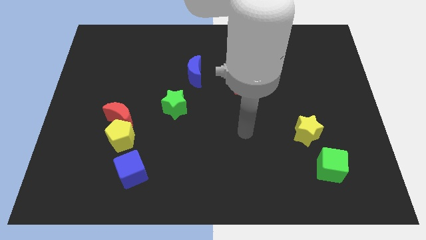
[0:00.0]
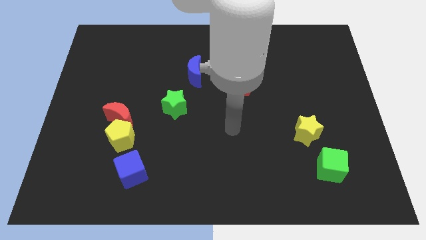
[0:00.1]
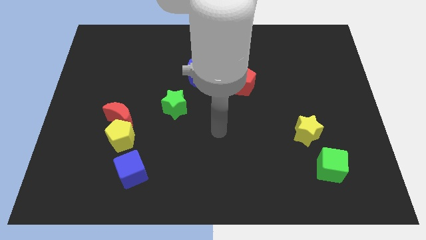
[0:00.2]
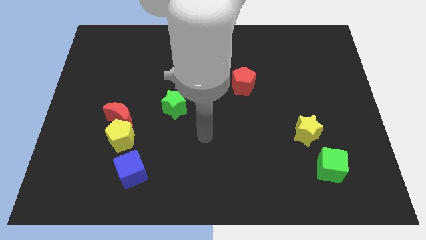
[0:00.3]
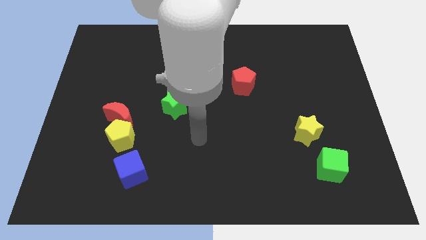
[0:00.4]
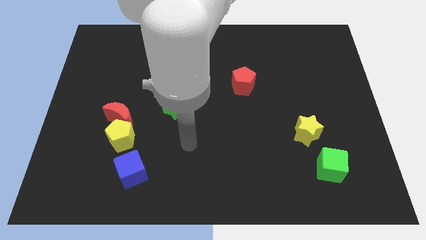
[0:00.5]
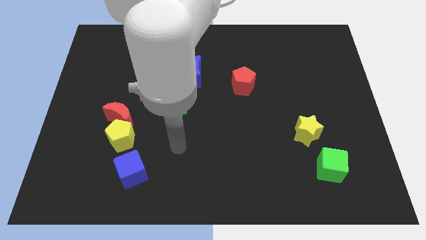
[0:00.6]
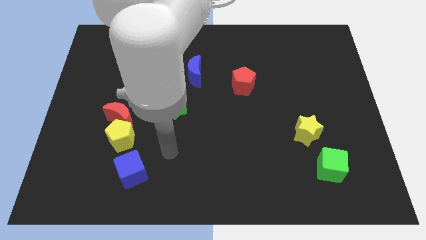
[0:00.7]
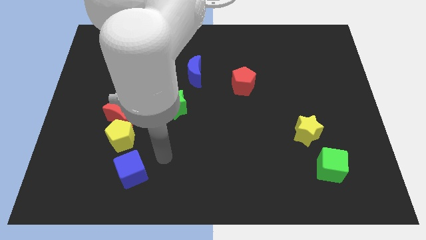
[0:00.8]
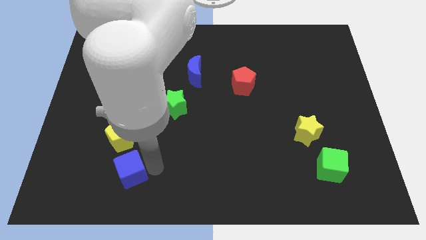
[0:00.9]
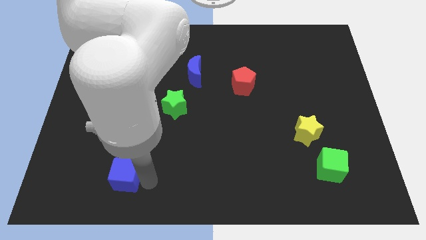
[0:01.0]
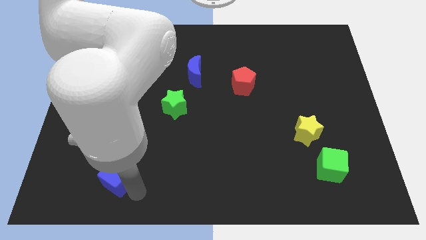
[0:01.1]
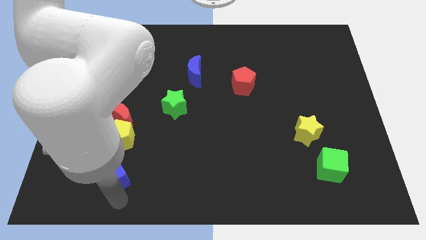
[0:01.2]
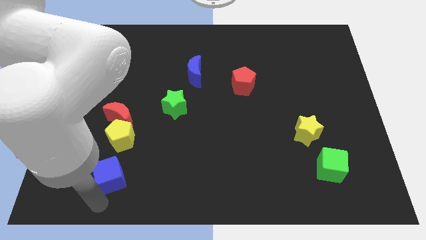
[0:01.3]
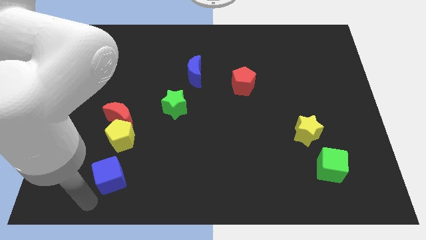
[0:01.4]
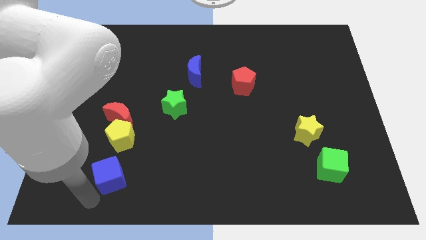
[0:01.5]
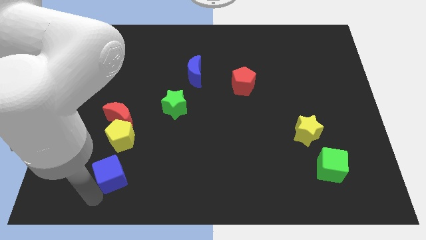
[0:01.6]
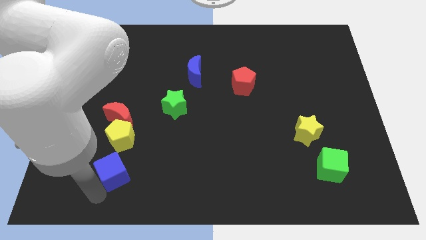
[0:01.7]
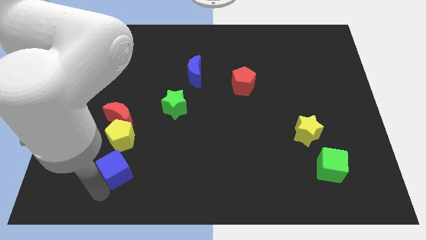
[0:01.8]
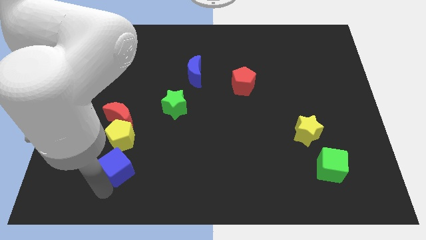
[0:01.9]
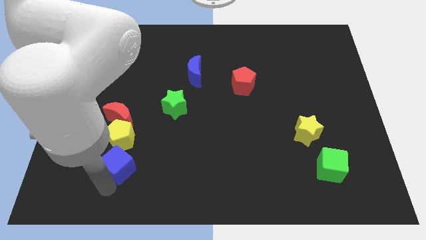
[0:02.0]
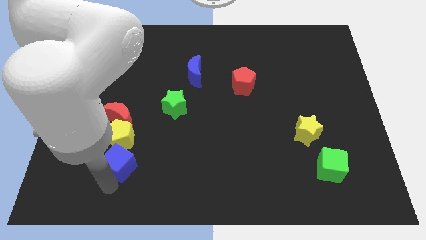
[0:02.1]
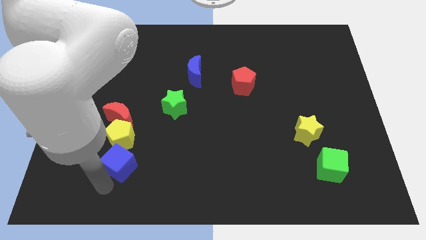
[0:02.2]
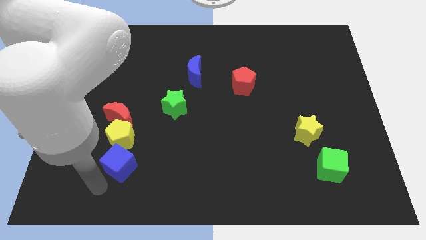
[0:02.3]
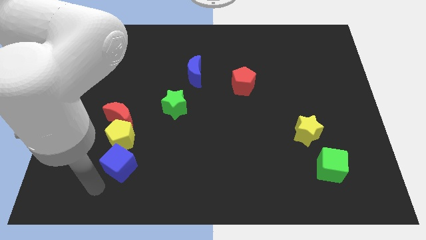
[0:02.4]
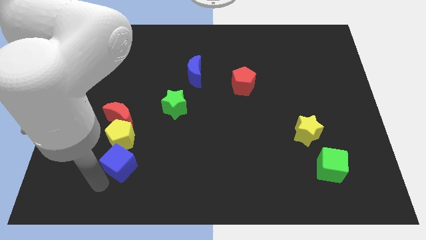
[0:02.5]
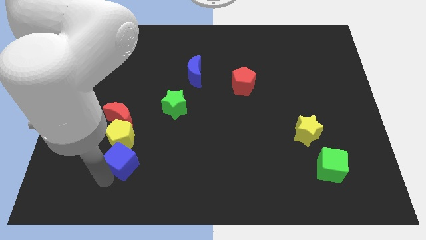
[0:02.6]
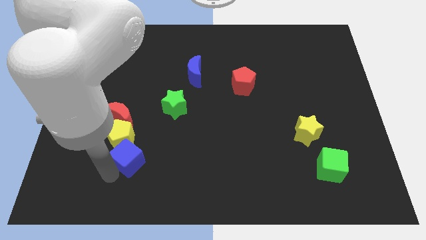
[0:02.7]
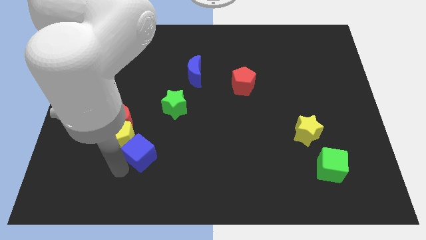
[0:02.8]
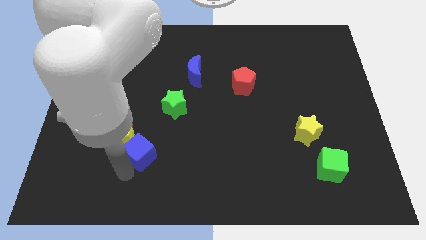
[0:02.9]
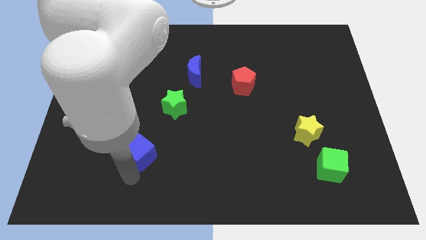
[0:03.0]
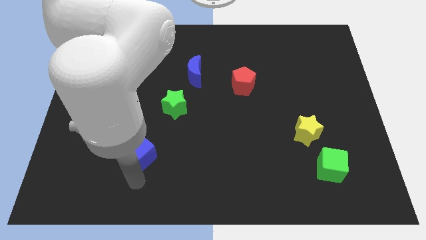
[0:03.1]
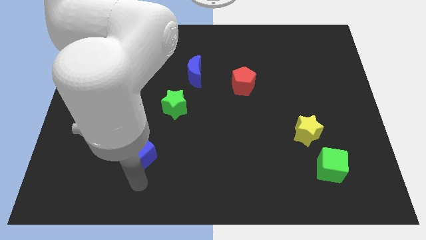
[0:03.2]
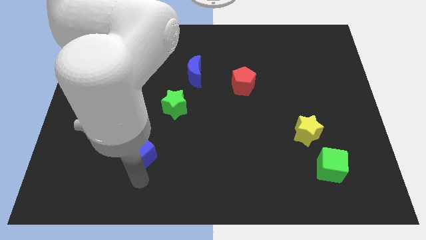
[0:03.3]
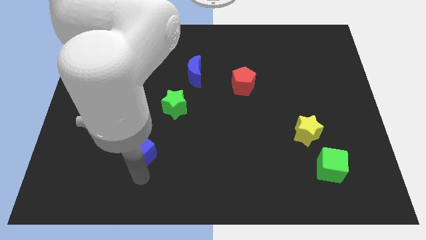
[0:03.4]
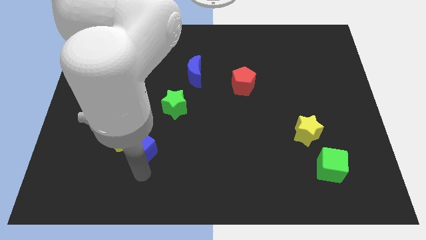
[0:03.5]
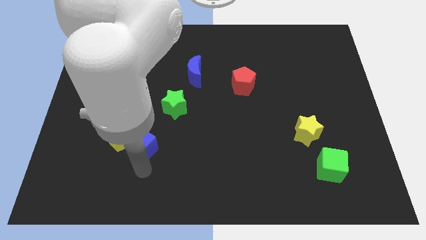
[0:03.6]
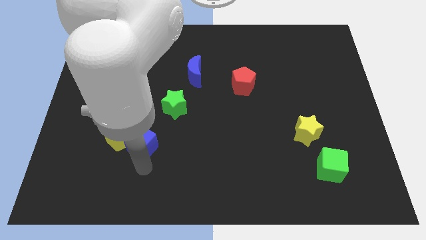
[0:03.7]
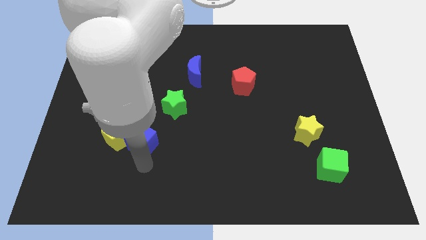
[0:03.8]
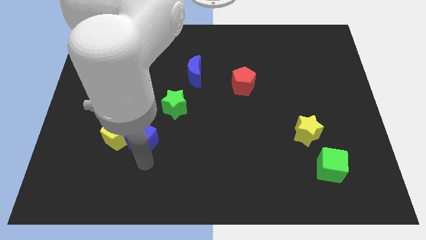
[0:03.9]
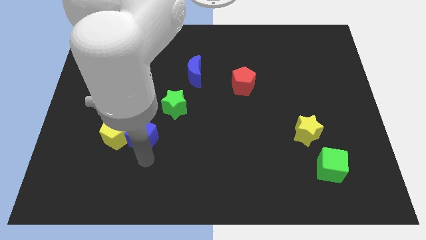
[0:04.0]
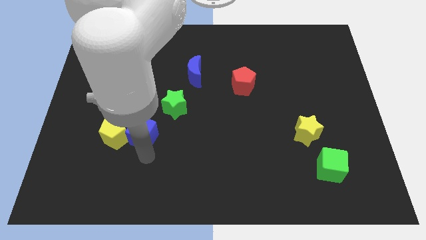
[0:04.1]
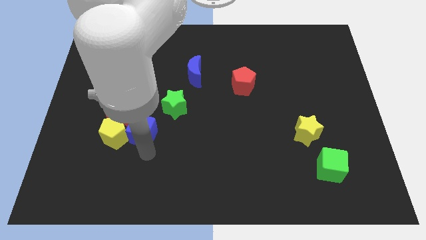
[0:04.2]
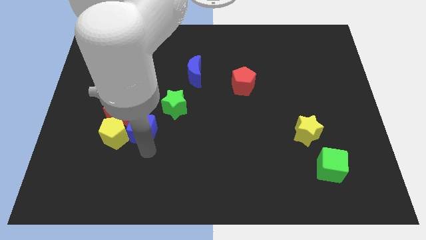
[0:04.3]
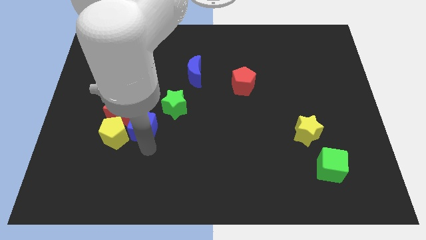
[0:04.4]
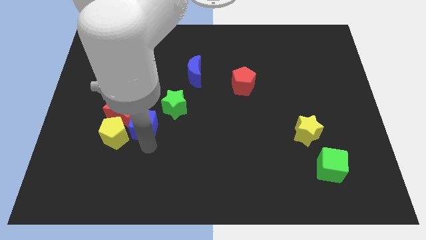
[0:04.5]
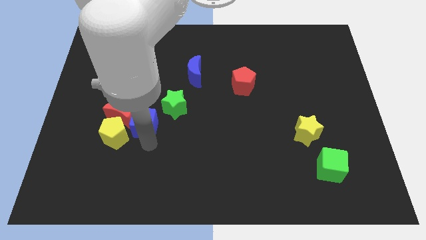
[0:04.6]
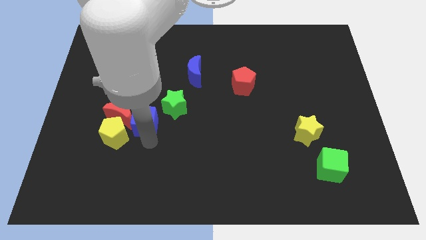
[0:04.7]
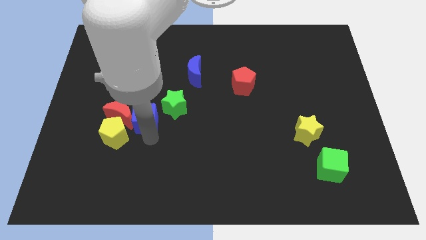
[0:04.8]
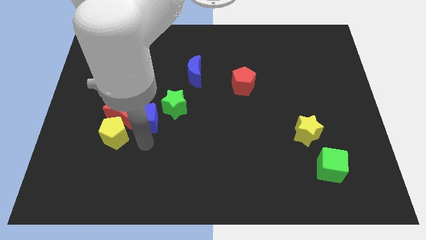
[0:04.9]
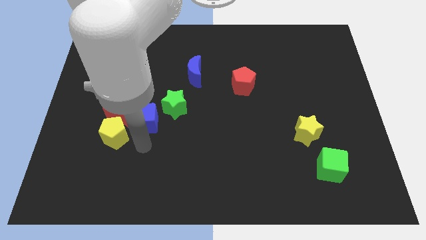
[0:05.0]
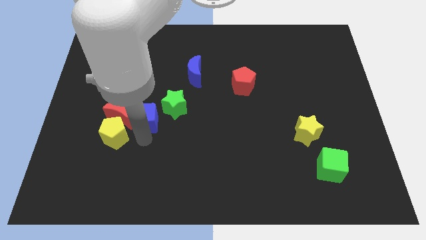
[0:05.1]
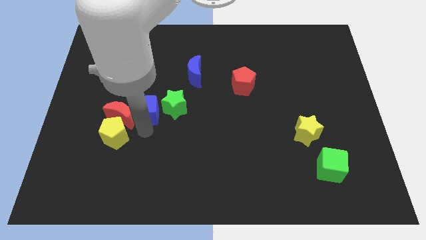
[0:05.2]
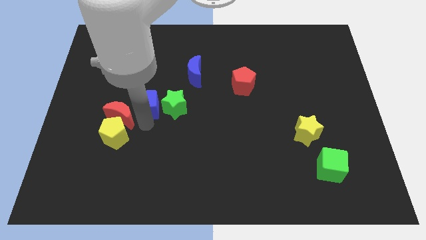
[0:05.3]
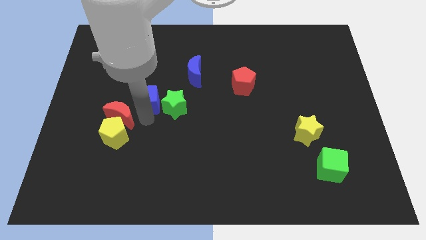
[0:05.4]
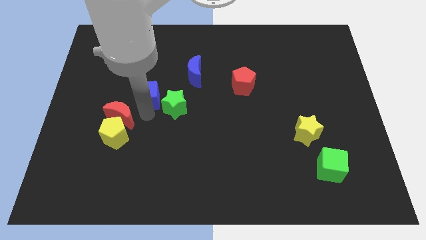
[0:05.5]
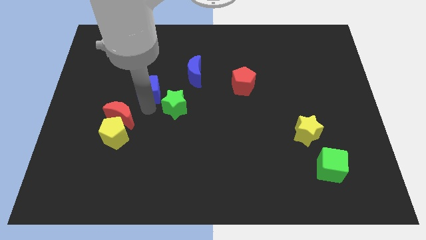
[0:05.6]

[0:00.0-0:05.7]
push the blue cube upwards

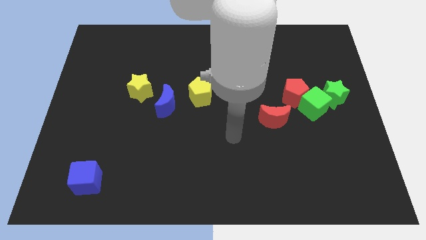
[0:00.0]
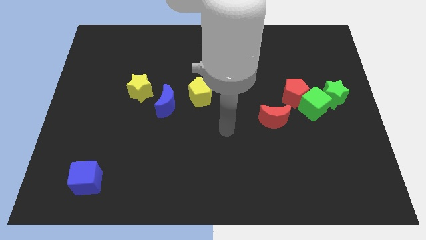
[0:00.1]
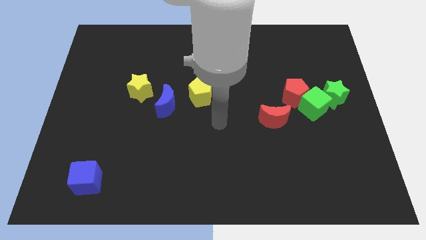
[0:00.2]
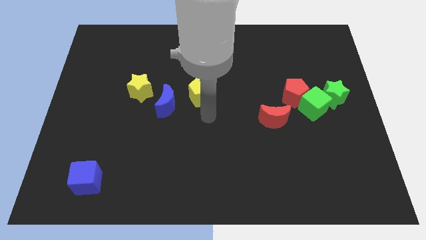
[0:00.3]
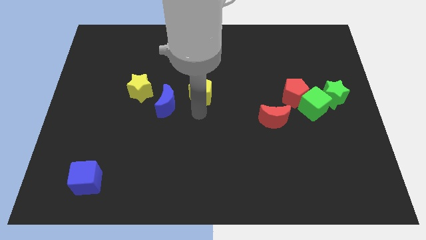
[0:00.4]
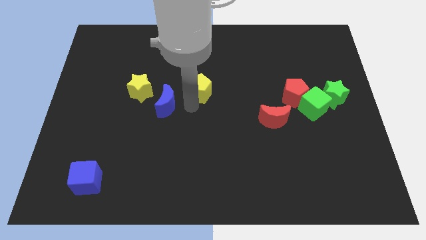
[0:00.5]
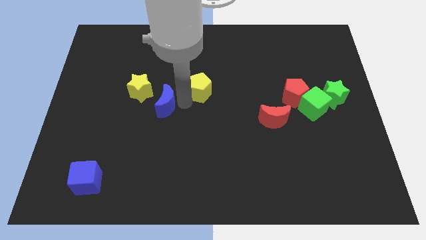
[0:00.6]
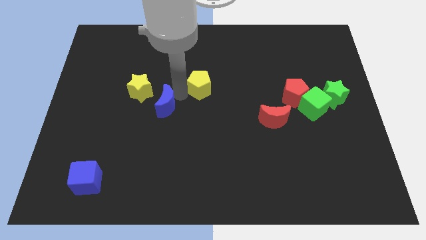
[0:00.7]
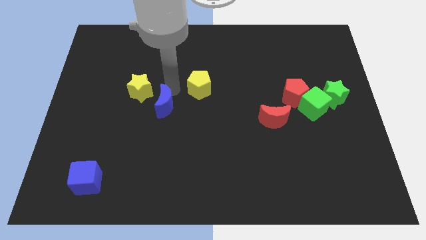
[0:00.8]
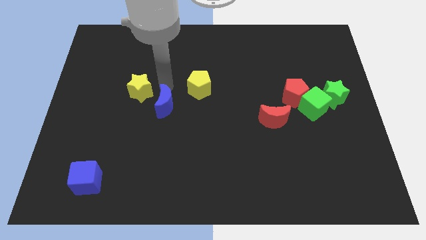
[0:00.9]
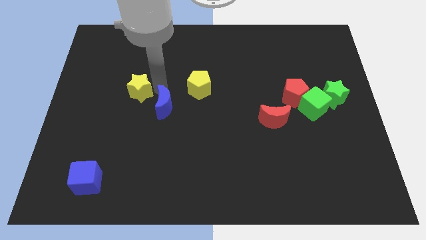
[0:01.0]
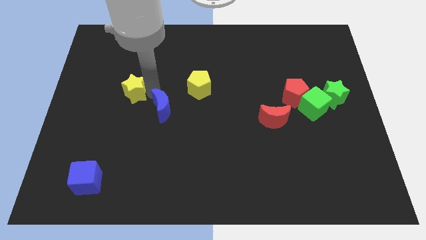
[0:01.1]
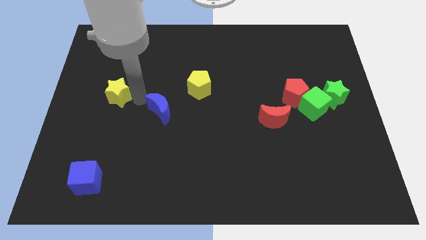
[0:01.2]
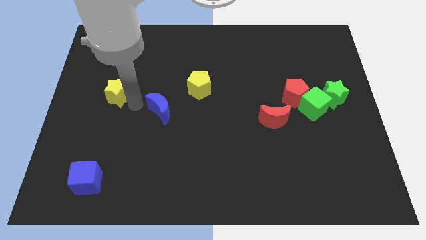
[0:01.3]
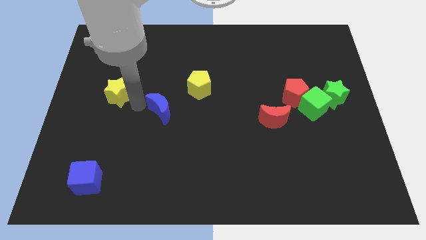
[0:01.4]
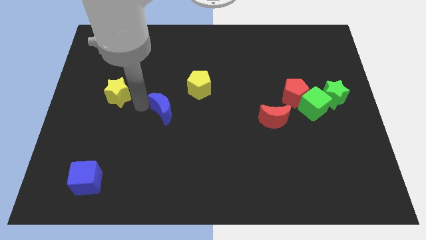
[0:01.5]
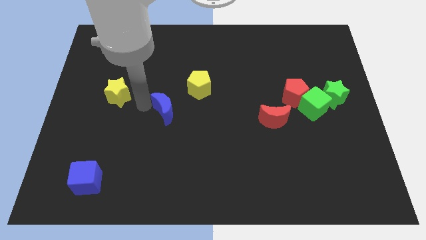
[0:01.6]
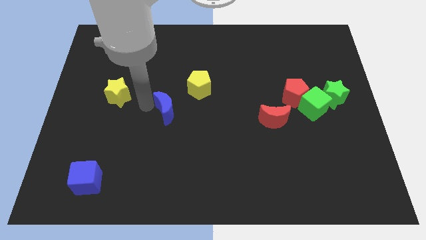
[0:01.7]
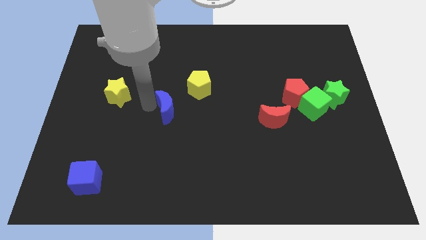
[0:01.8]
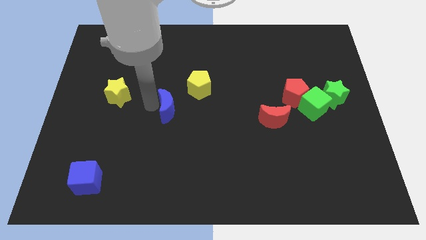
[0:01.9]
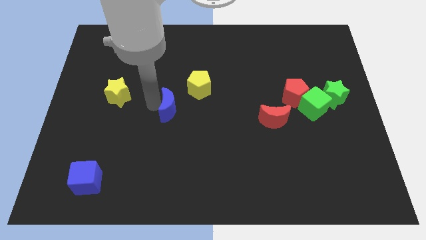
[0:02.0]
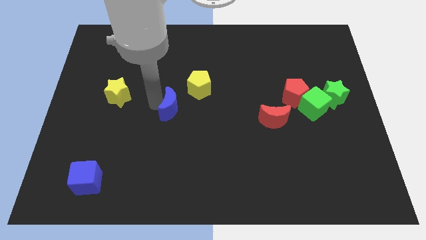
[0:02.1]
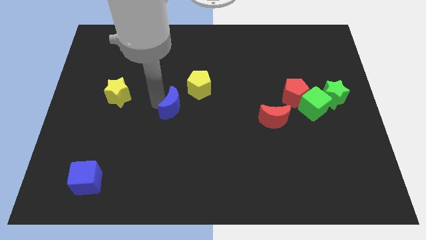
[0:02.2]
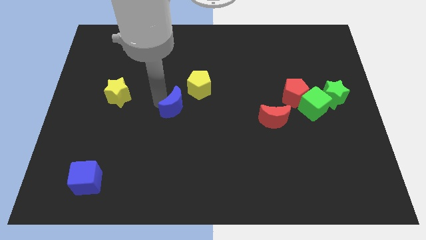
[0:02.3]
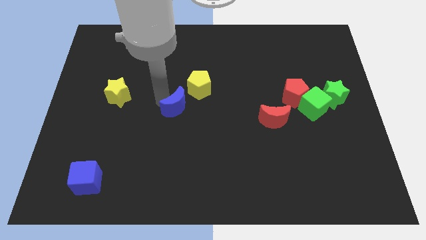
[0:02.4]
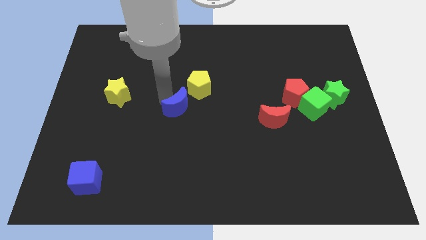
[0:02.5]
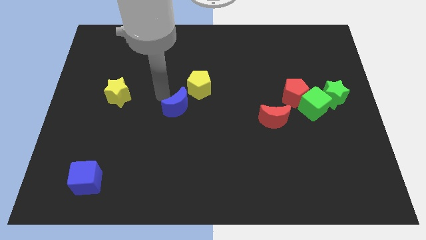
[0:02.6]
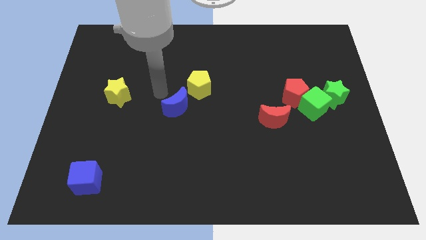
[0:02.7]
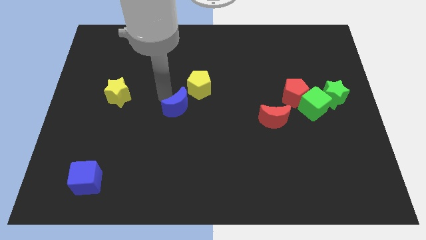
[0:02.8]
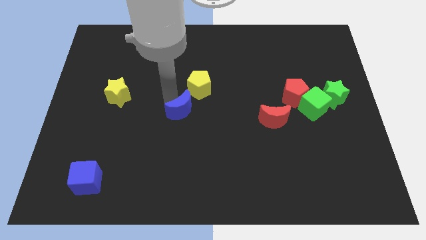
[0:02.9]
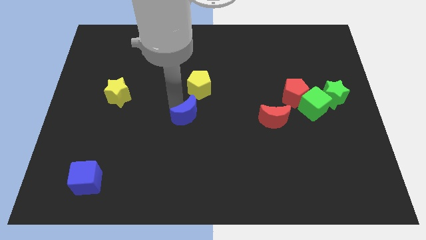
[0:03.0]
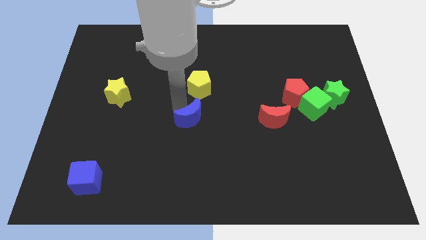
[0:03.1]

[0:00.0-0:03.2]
push the blue moon downwards and right a bit
